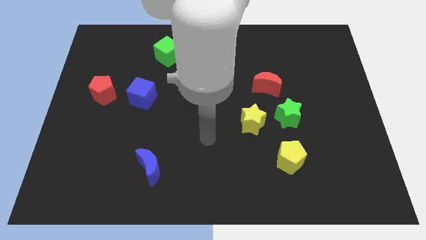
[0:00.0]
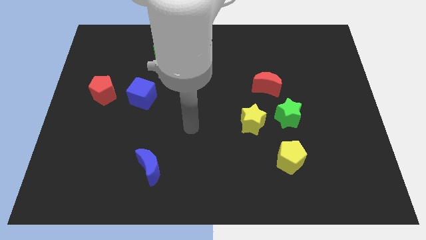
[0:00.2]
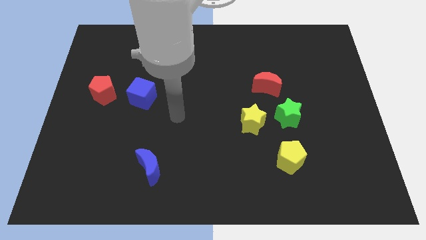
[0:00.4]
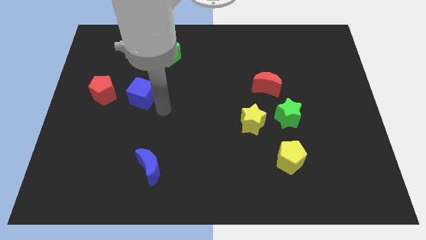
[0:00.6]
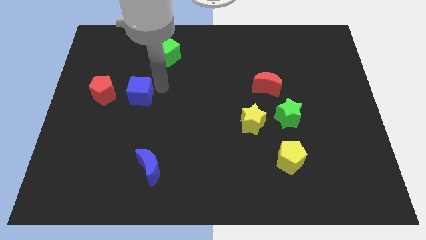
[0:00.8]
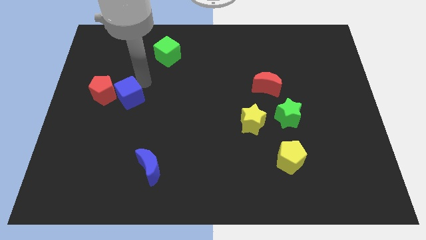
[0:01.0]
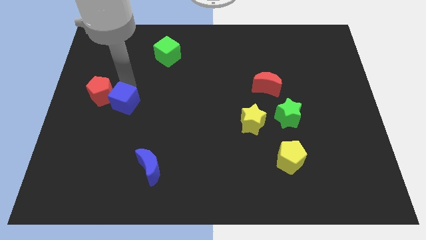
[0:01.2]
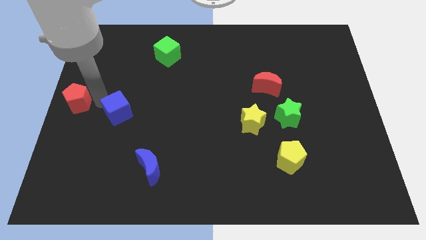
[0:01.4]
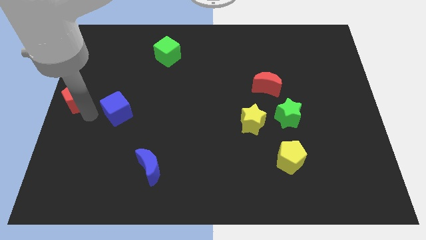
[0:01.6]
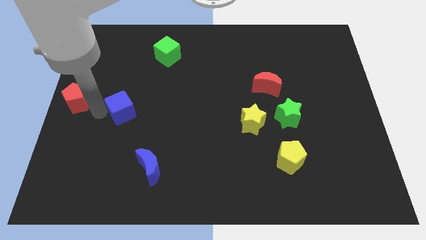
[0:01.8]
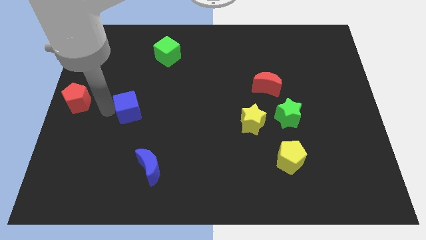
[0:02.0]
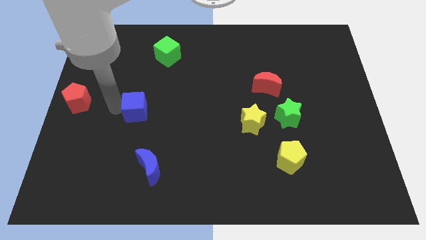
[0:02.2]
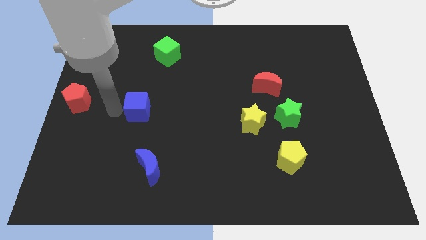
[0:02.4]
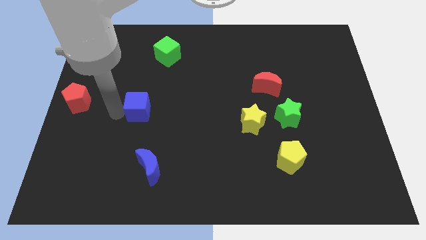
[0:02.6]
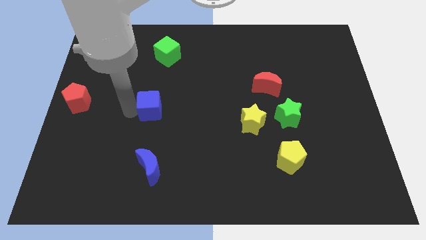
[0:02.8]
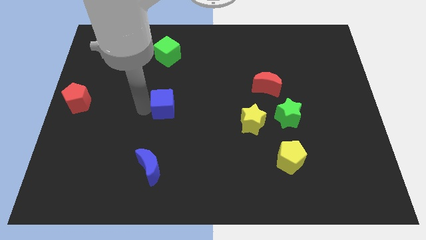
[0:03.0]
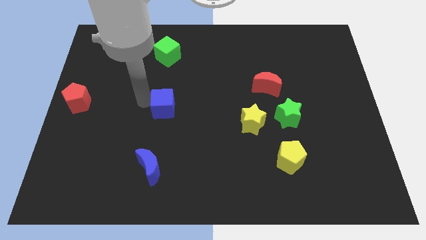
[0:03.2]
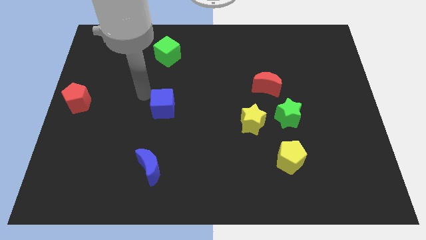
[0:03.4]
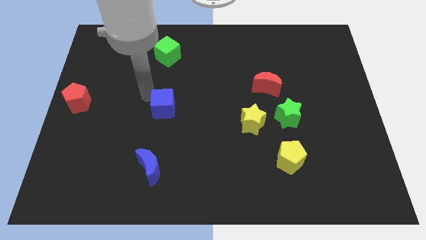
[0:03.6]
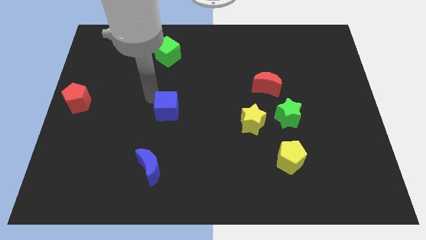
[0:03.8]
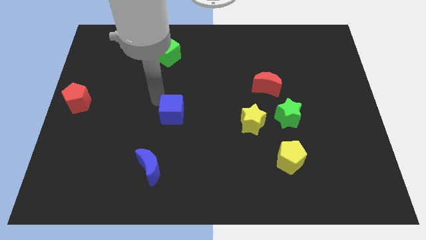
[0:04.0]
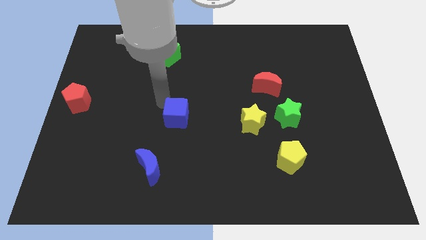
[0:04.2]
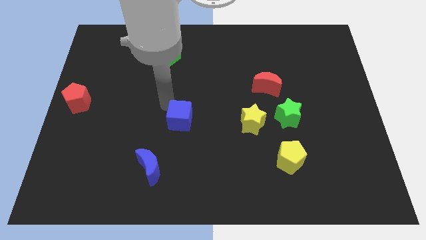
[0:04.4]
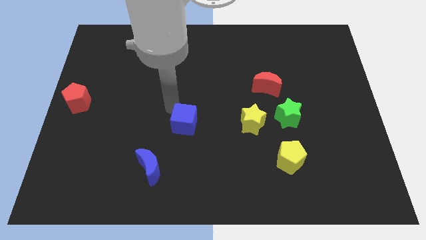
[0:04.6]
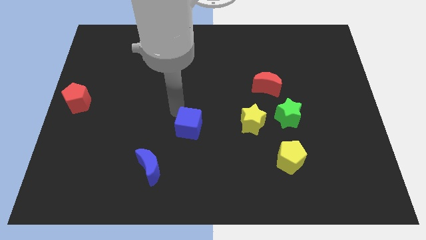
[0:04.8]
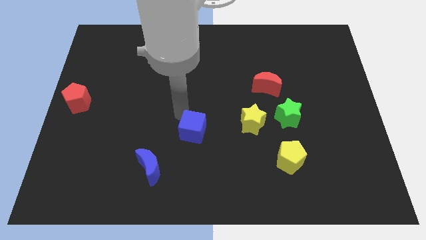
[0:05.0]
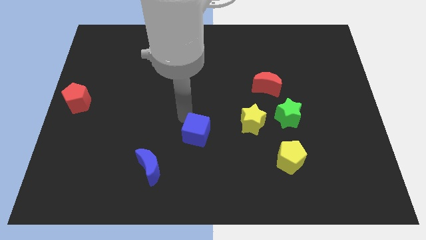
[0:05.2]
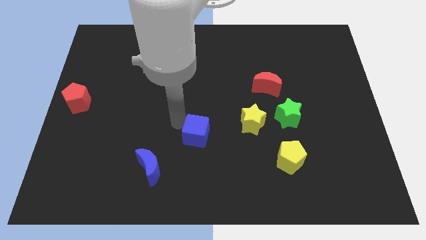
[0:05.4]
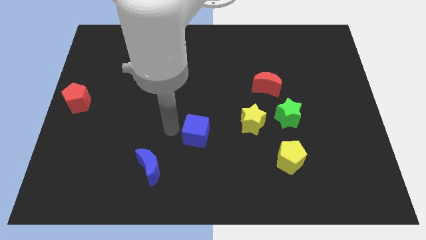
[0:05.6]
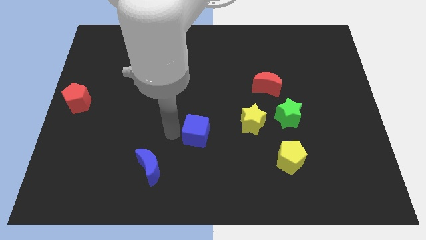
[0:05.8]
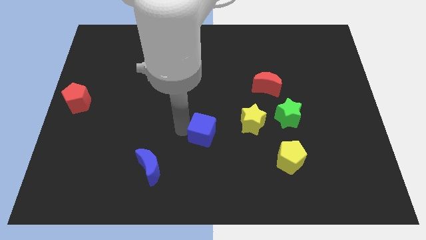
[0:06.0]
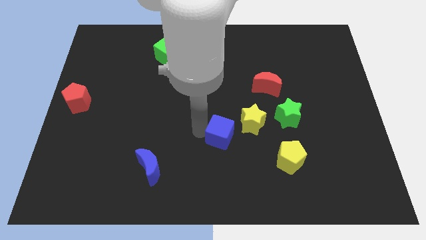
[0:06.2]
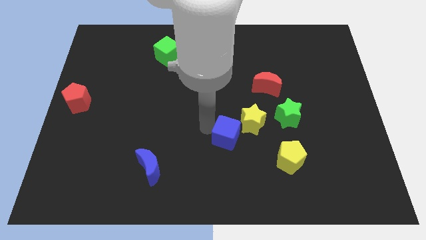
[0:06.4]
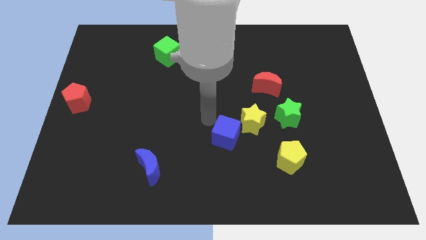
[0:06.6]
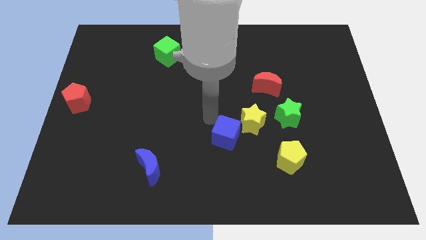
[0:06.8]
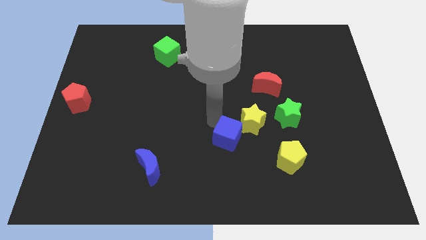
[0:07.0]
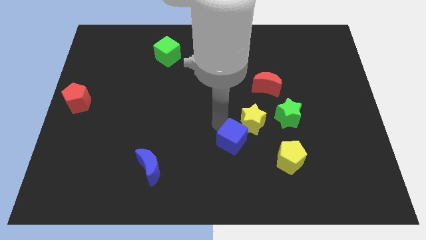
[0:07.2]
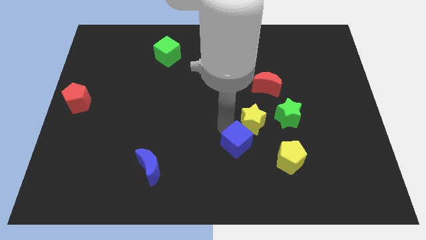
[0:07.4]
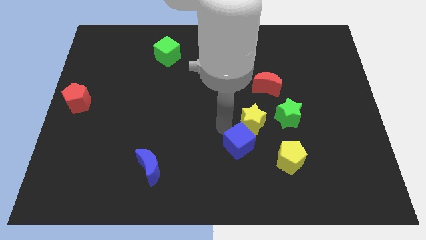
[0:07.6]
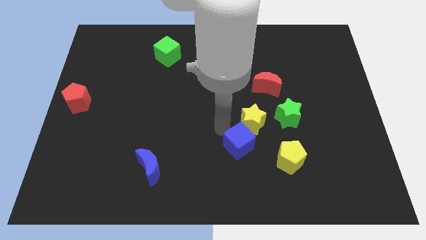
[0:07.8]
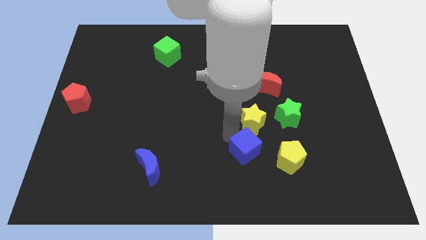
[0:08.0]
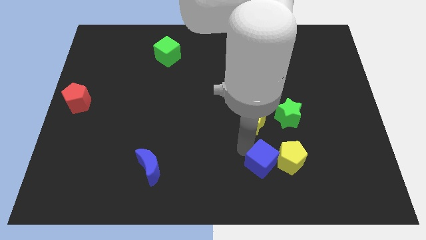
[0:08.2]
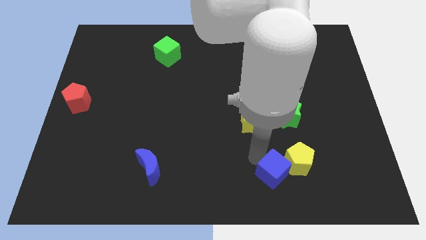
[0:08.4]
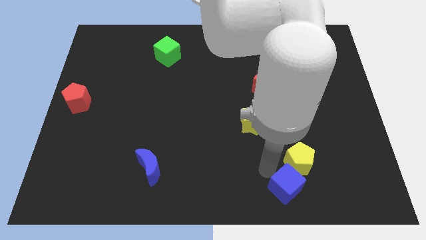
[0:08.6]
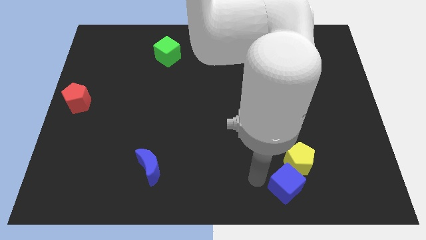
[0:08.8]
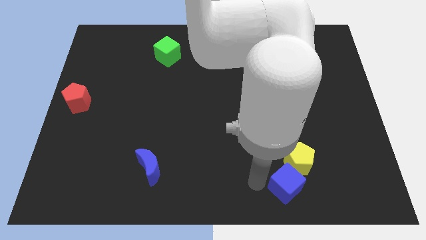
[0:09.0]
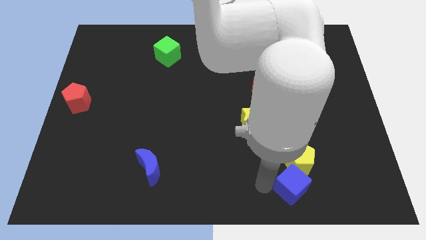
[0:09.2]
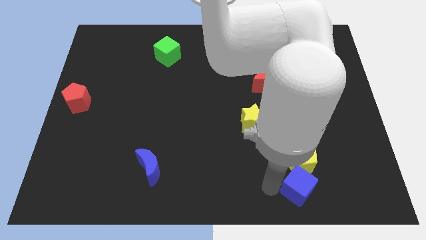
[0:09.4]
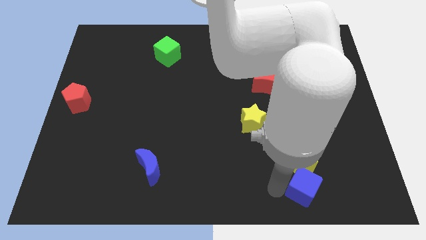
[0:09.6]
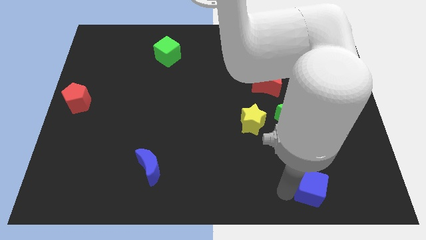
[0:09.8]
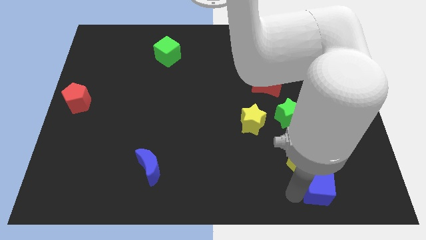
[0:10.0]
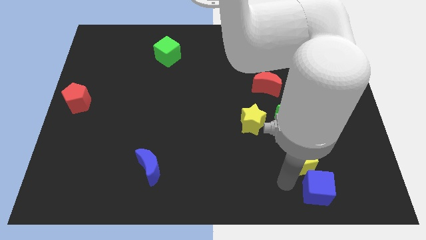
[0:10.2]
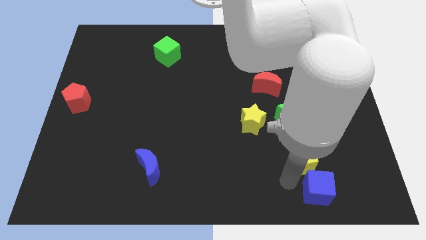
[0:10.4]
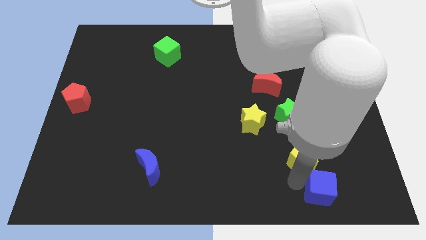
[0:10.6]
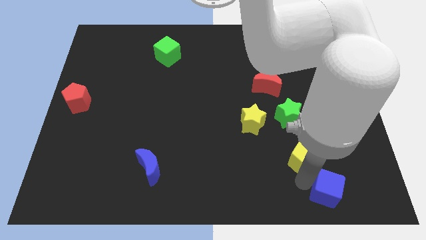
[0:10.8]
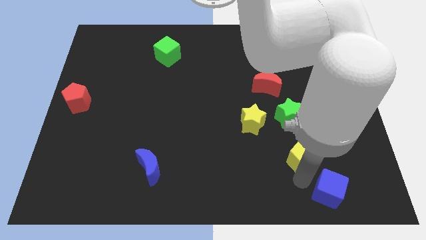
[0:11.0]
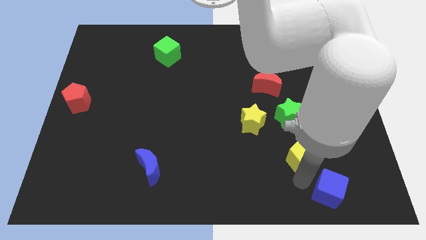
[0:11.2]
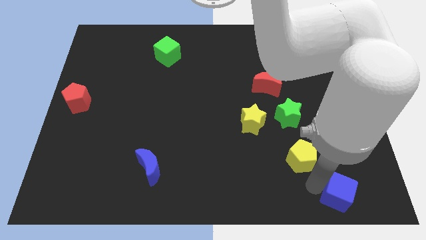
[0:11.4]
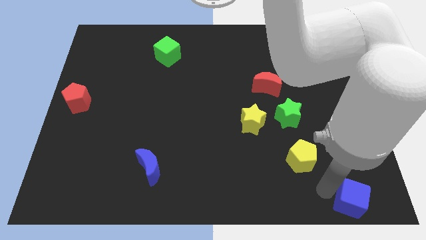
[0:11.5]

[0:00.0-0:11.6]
push the blue cube to the bottom right
